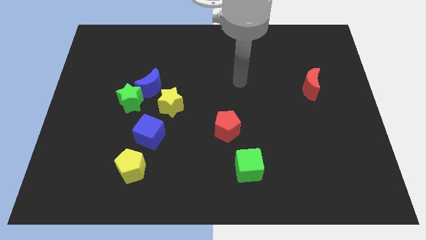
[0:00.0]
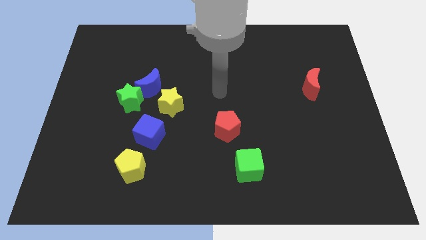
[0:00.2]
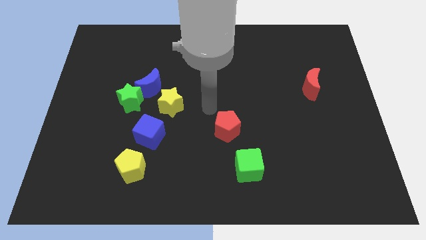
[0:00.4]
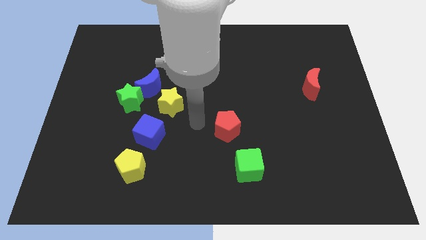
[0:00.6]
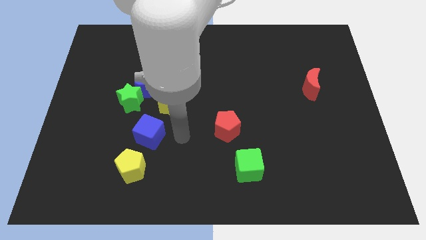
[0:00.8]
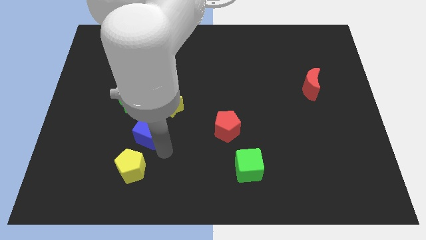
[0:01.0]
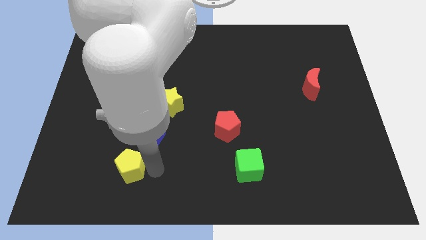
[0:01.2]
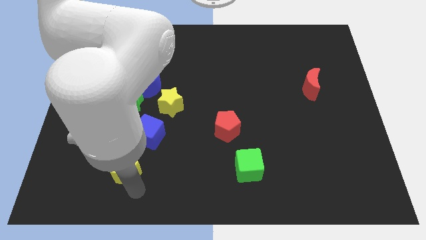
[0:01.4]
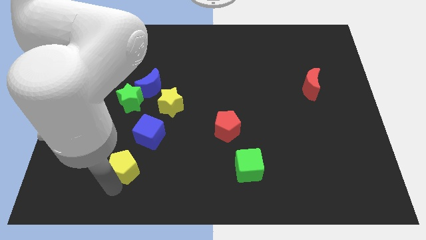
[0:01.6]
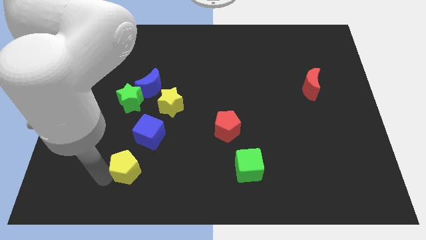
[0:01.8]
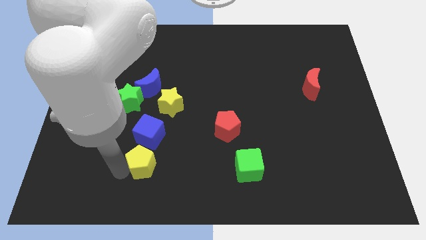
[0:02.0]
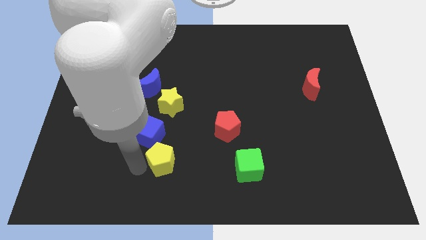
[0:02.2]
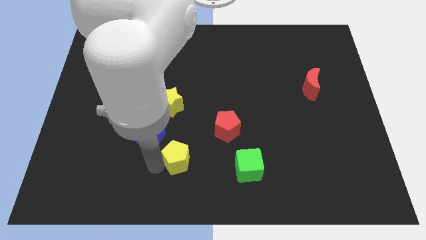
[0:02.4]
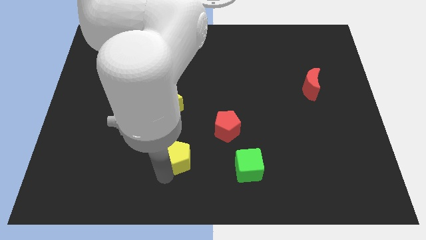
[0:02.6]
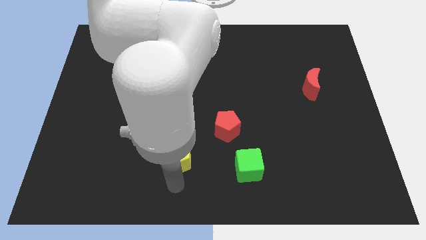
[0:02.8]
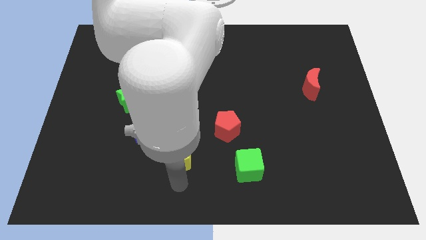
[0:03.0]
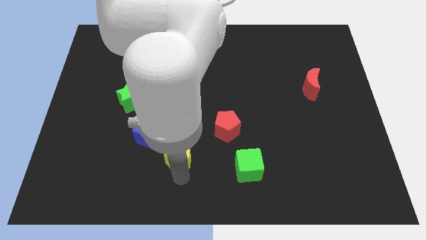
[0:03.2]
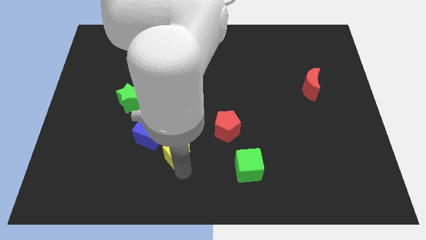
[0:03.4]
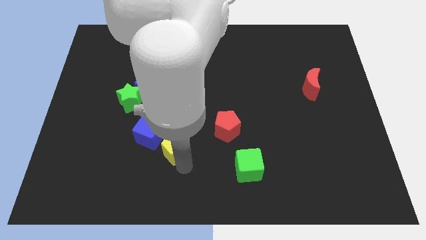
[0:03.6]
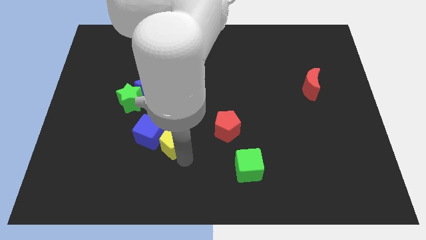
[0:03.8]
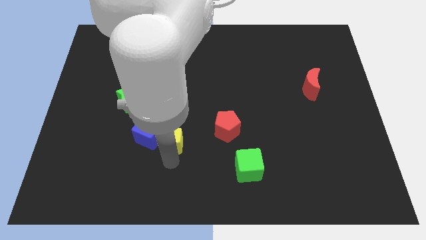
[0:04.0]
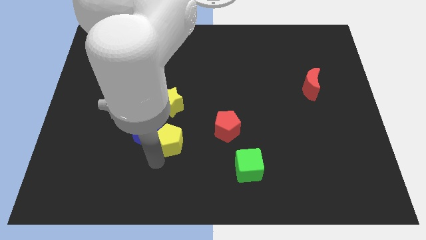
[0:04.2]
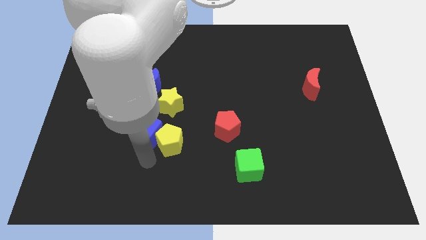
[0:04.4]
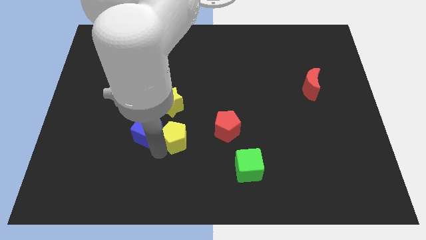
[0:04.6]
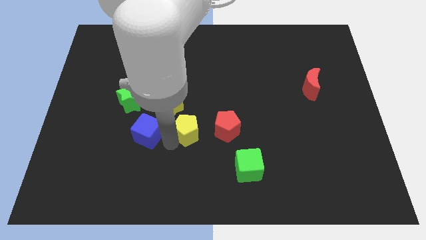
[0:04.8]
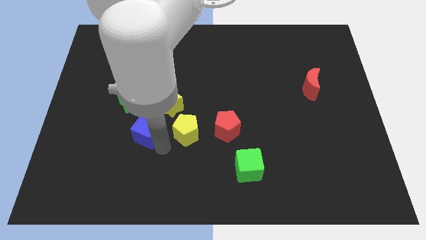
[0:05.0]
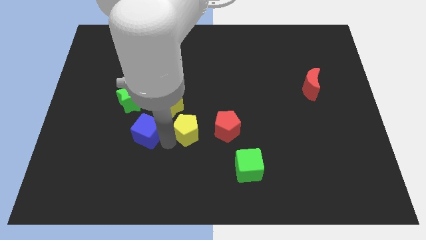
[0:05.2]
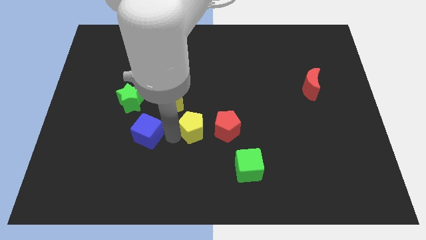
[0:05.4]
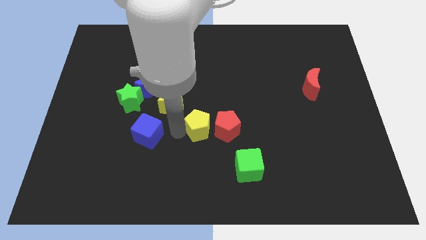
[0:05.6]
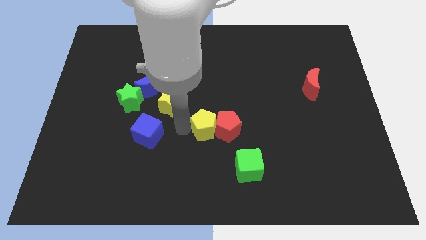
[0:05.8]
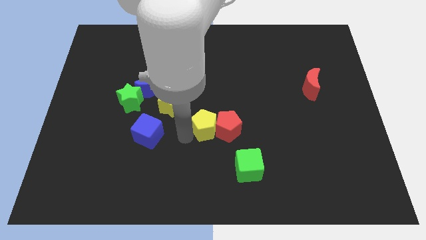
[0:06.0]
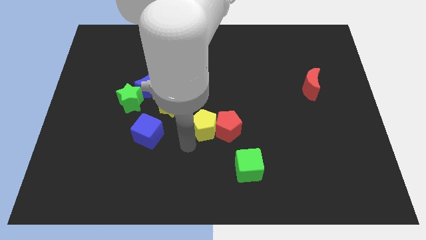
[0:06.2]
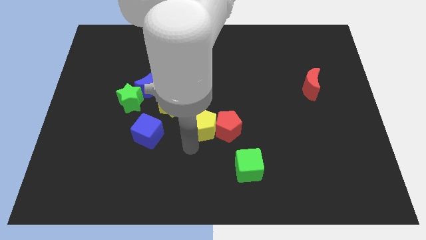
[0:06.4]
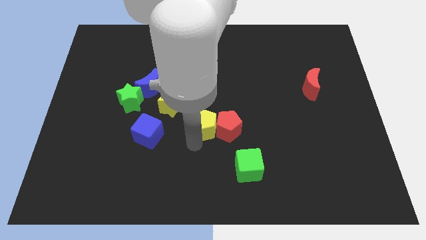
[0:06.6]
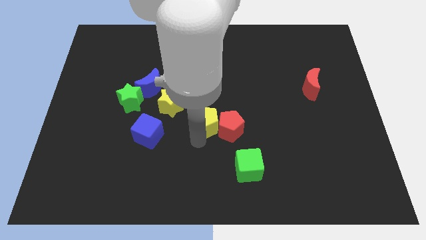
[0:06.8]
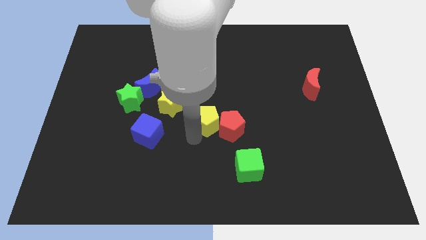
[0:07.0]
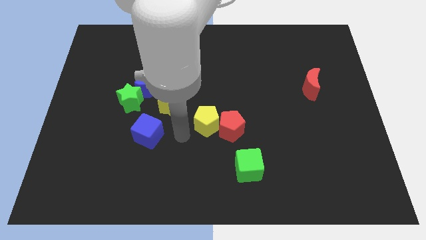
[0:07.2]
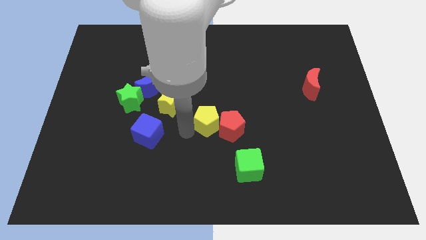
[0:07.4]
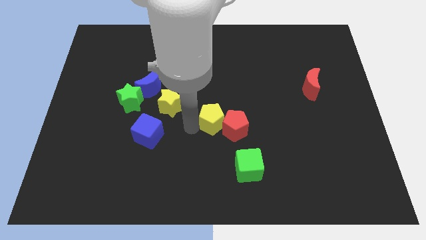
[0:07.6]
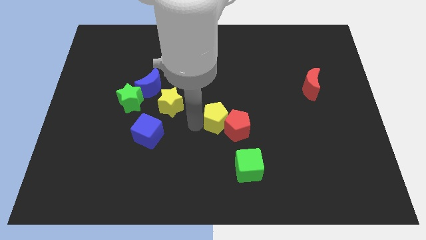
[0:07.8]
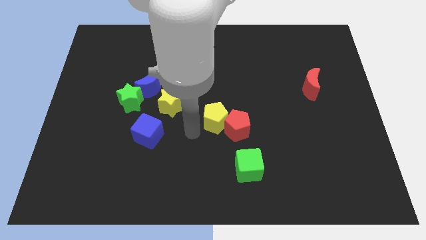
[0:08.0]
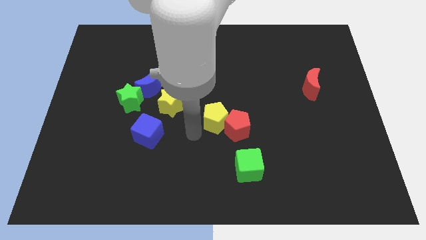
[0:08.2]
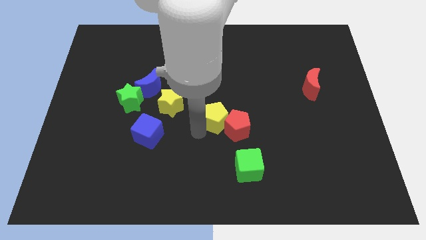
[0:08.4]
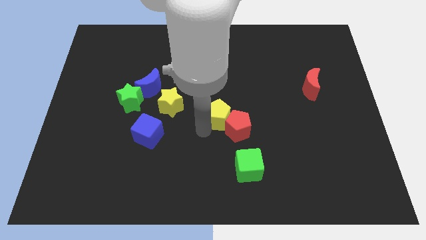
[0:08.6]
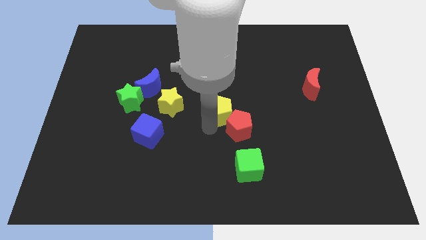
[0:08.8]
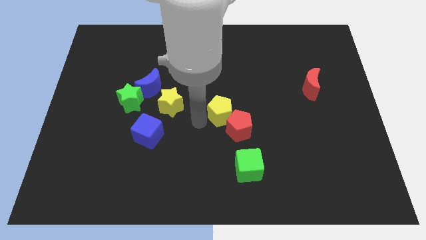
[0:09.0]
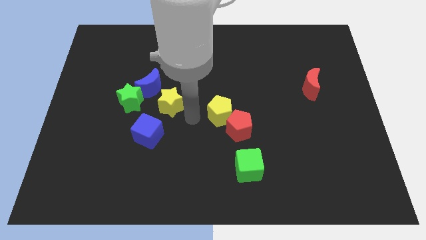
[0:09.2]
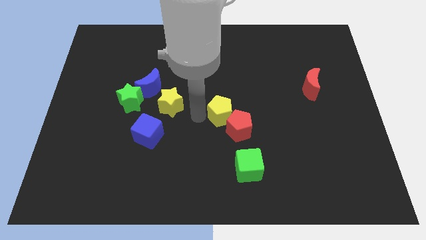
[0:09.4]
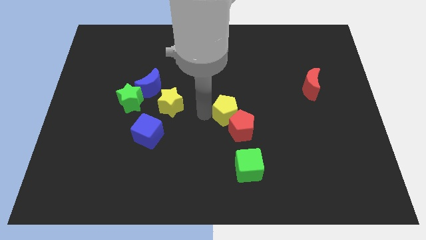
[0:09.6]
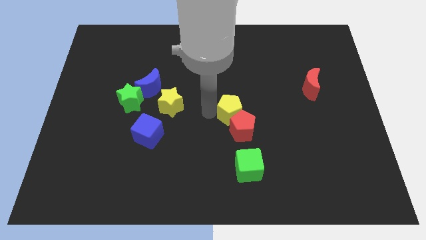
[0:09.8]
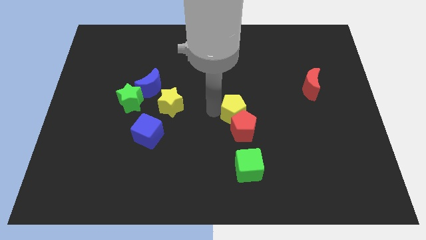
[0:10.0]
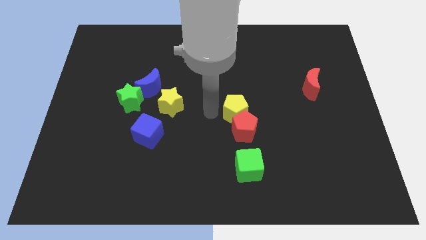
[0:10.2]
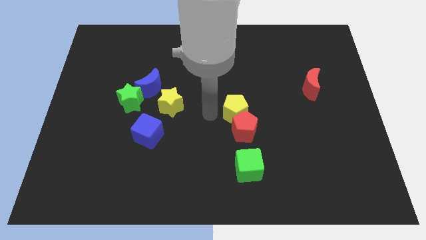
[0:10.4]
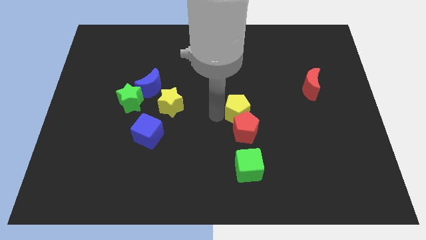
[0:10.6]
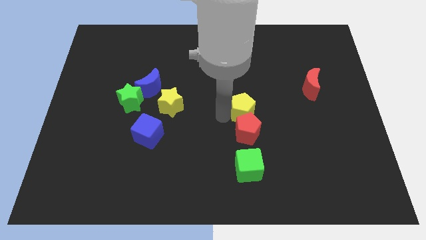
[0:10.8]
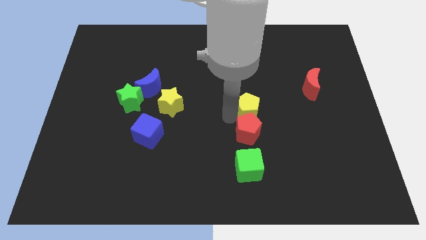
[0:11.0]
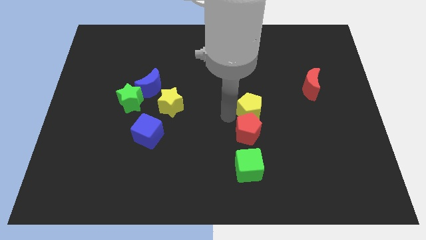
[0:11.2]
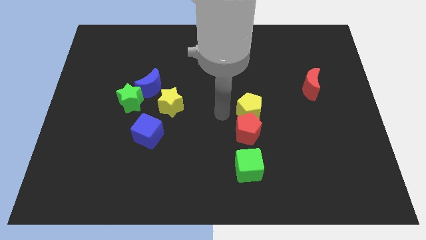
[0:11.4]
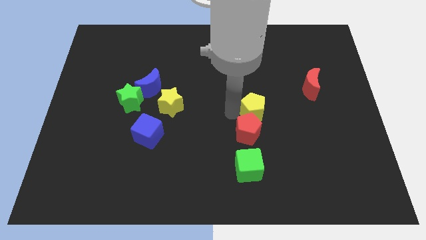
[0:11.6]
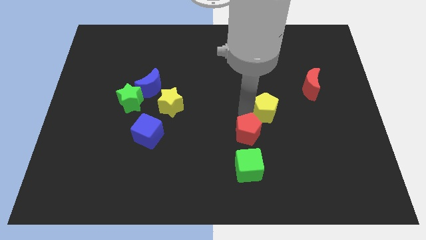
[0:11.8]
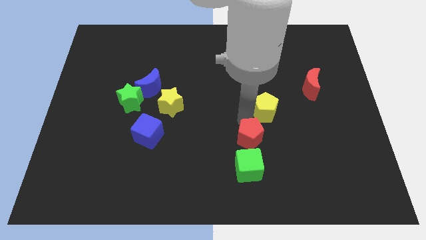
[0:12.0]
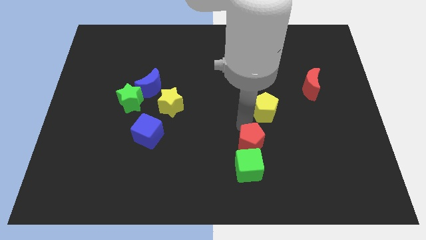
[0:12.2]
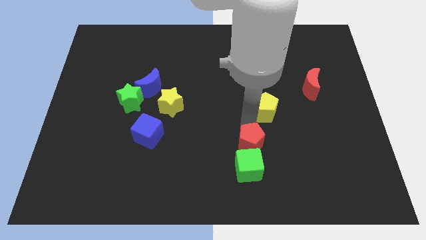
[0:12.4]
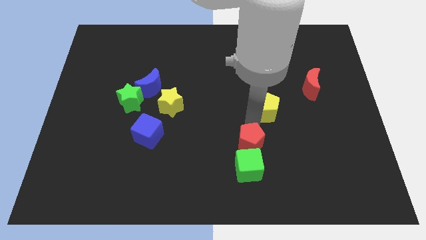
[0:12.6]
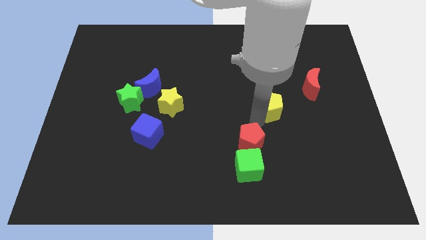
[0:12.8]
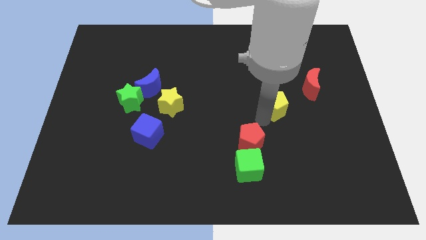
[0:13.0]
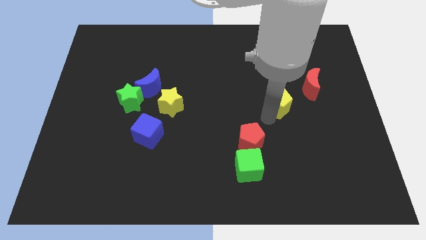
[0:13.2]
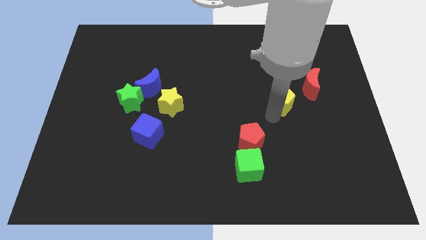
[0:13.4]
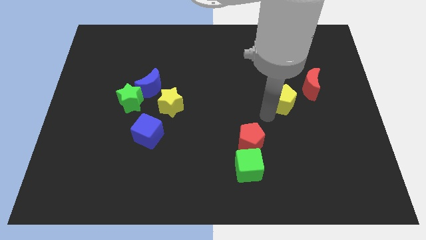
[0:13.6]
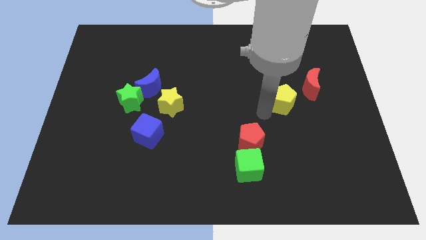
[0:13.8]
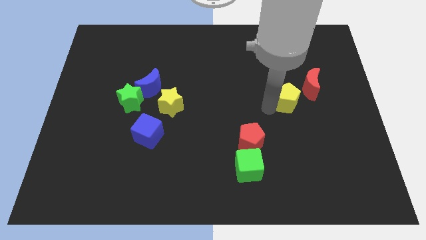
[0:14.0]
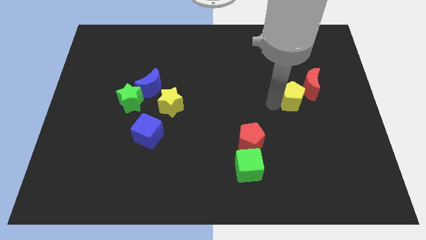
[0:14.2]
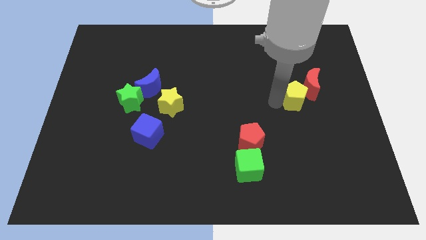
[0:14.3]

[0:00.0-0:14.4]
push the yellow pentagon to the red moon

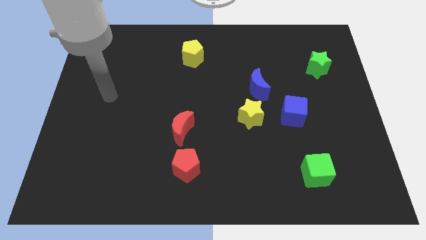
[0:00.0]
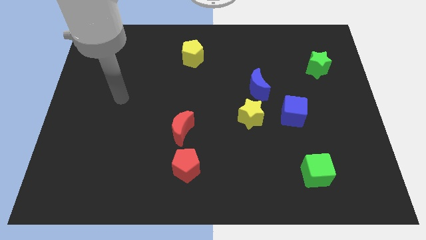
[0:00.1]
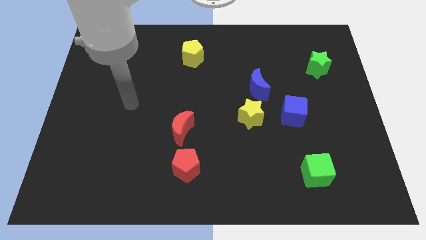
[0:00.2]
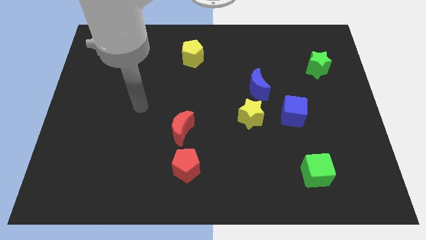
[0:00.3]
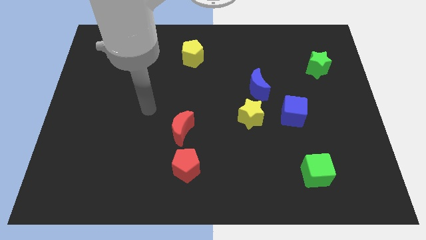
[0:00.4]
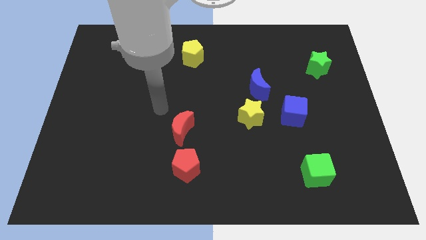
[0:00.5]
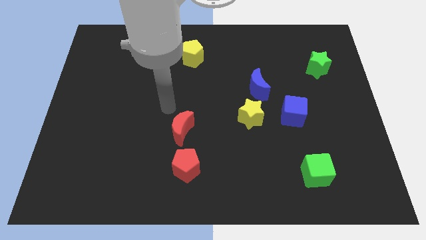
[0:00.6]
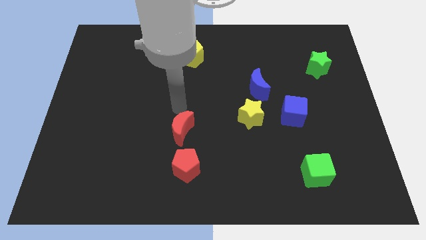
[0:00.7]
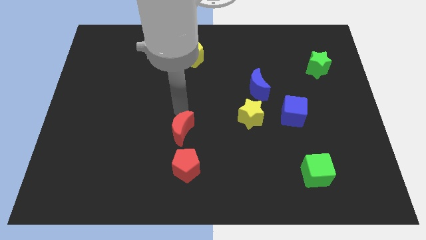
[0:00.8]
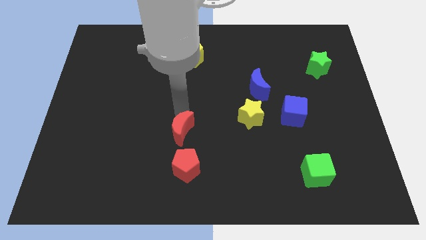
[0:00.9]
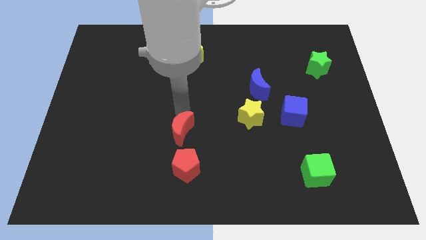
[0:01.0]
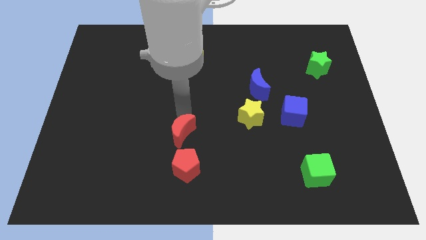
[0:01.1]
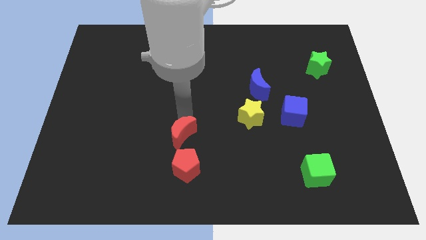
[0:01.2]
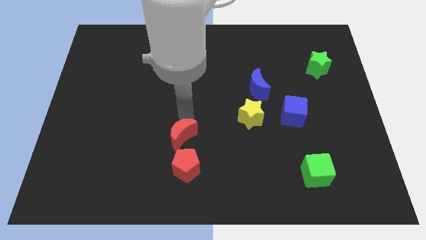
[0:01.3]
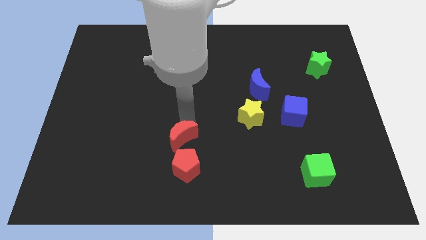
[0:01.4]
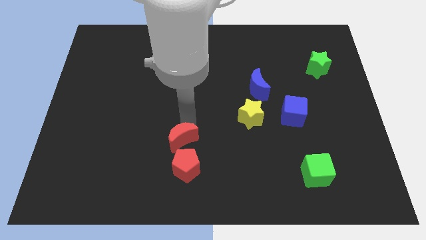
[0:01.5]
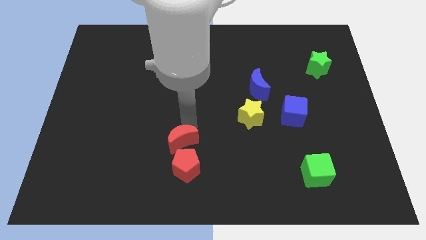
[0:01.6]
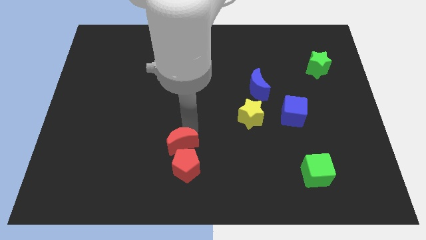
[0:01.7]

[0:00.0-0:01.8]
slide the red moon next to the red pentagon
